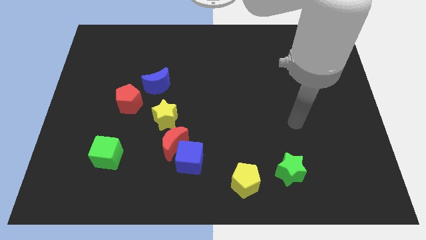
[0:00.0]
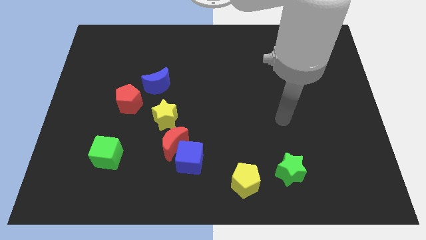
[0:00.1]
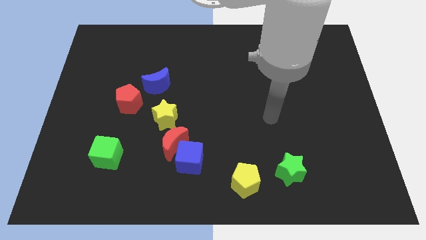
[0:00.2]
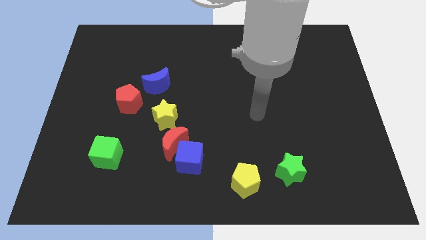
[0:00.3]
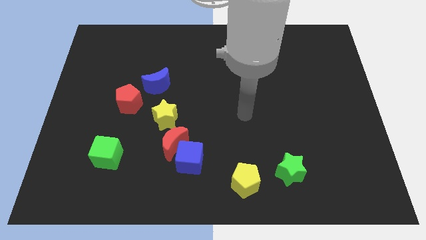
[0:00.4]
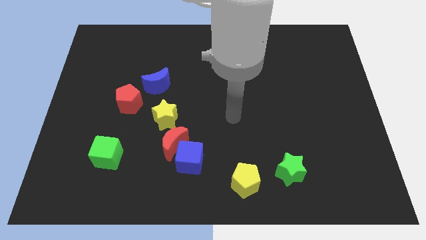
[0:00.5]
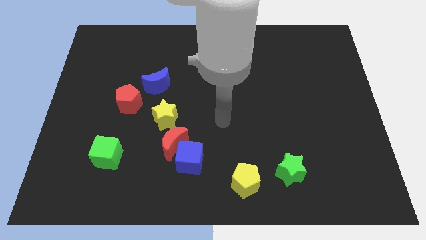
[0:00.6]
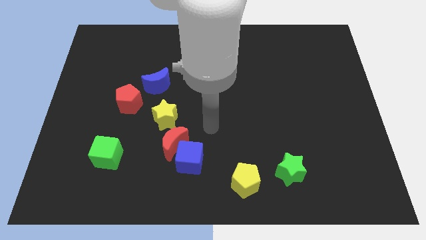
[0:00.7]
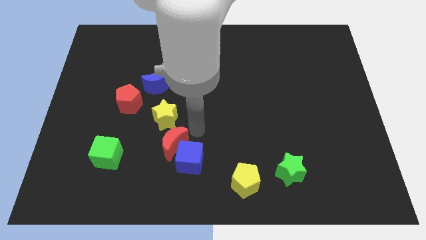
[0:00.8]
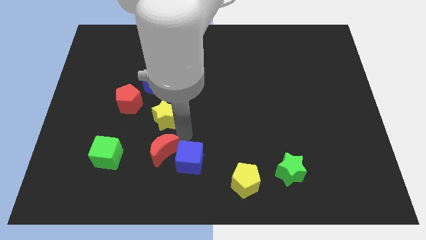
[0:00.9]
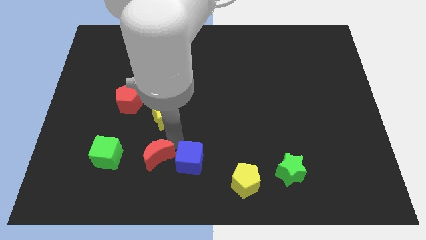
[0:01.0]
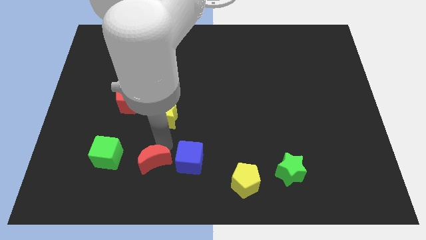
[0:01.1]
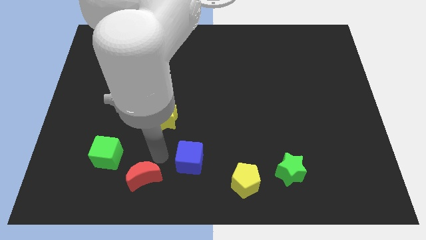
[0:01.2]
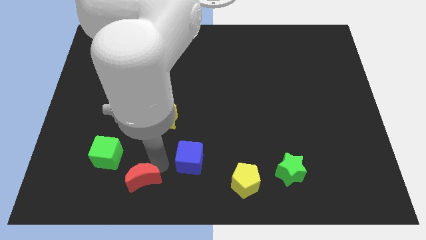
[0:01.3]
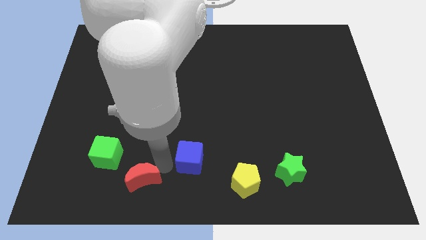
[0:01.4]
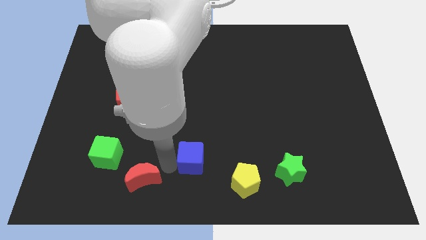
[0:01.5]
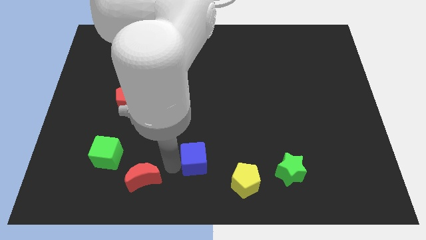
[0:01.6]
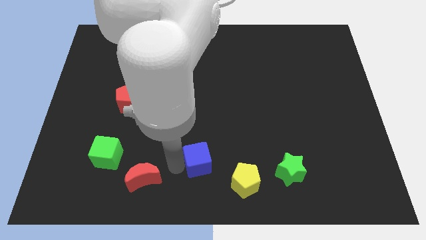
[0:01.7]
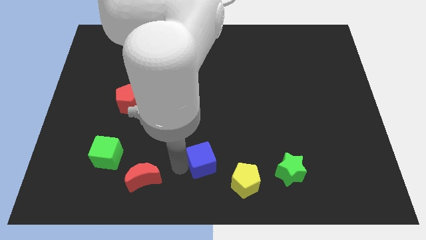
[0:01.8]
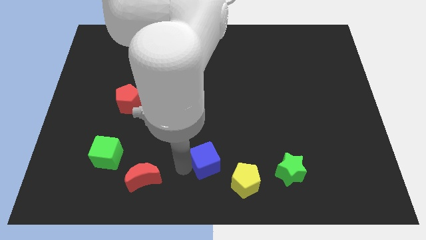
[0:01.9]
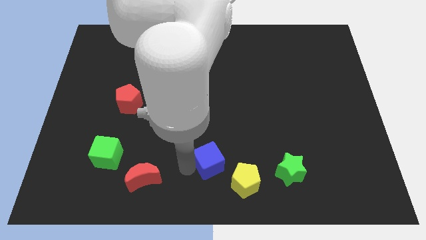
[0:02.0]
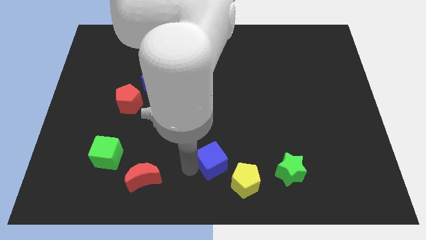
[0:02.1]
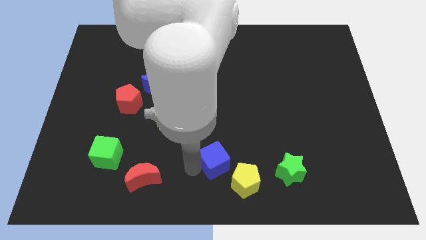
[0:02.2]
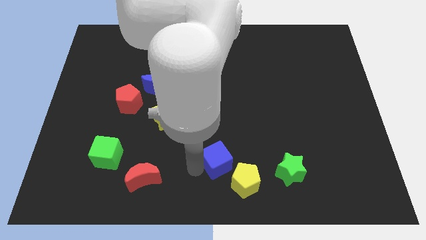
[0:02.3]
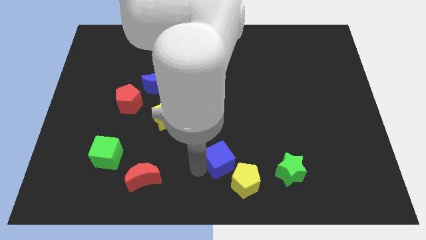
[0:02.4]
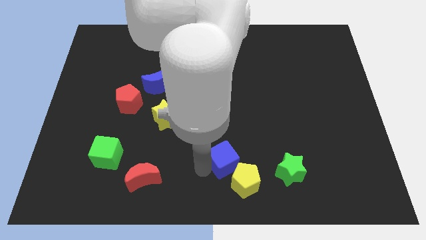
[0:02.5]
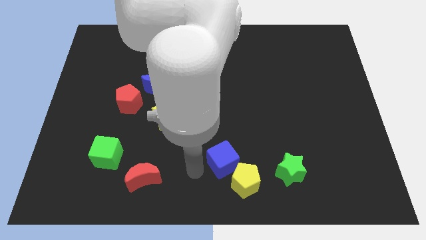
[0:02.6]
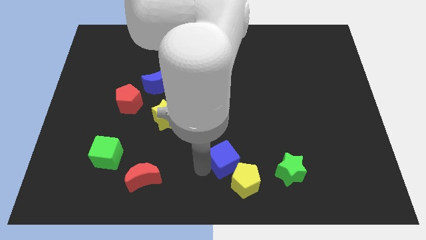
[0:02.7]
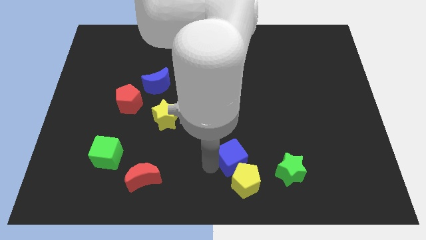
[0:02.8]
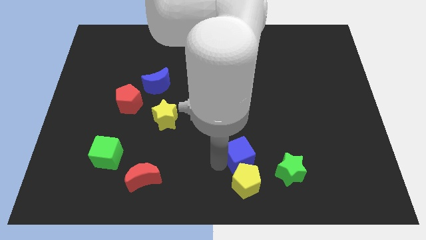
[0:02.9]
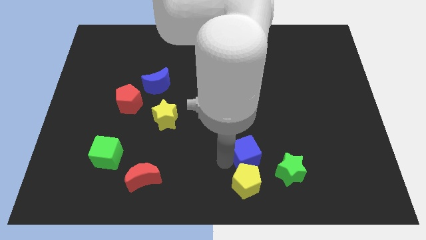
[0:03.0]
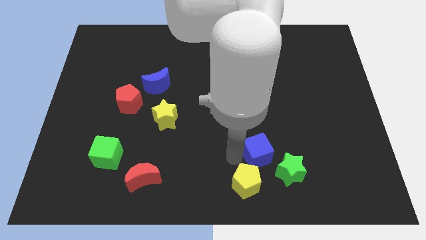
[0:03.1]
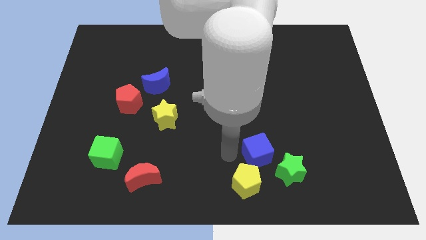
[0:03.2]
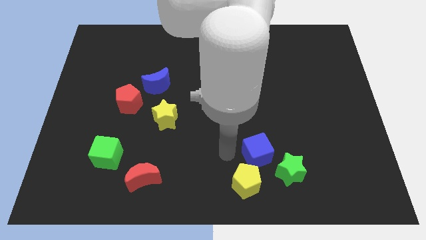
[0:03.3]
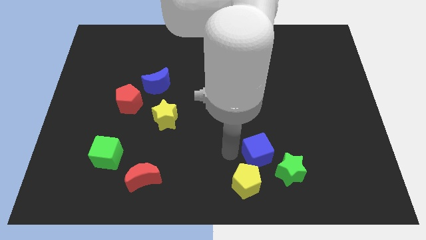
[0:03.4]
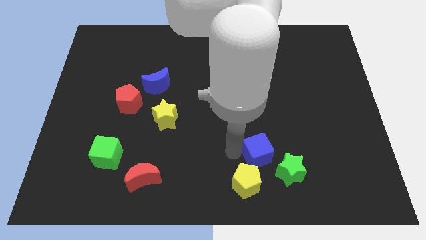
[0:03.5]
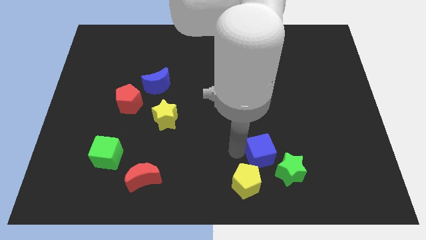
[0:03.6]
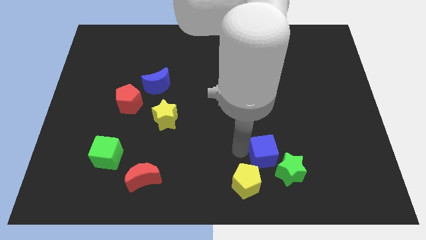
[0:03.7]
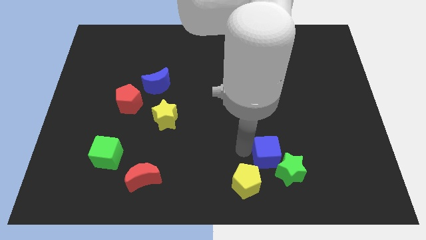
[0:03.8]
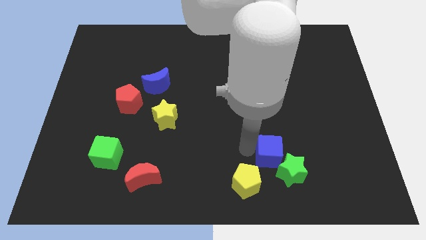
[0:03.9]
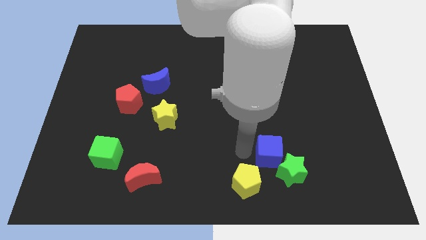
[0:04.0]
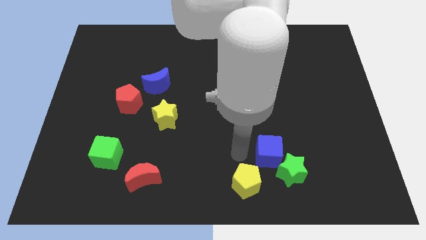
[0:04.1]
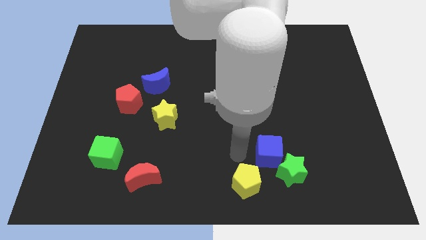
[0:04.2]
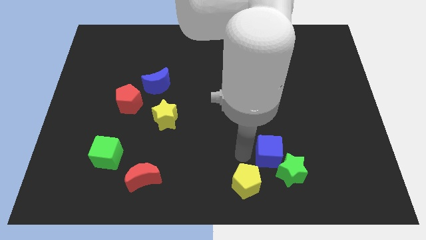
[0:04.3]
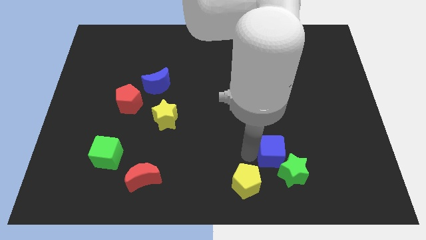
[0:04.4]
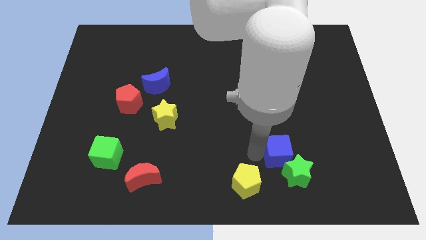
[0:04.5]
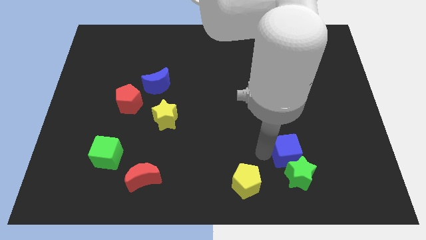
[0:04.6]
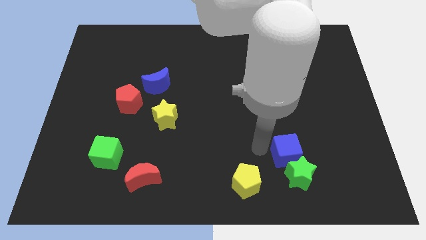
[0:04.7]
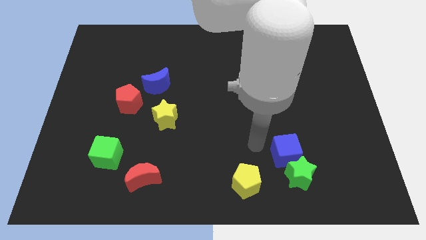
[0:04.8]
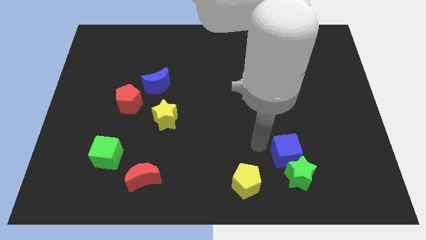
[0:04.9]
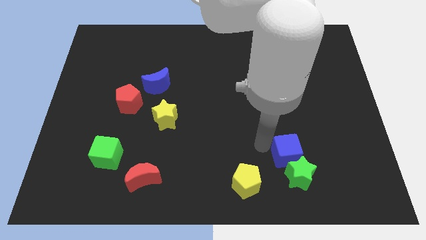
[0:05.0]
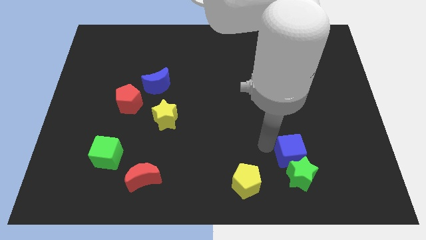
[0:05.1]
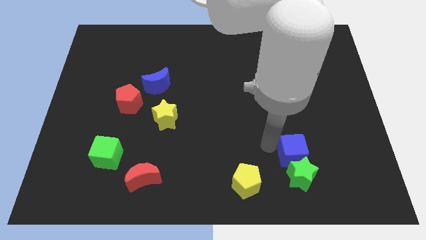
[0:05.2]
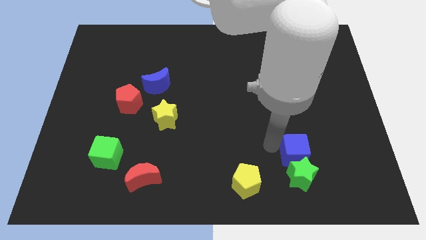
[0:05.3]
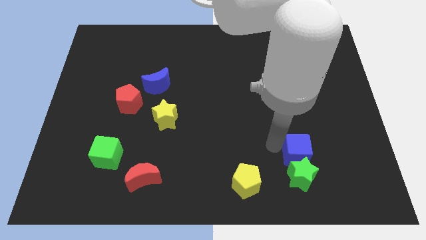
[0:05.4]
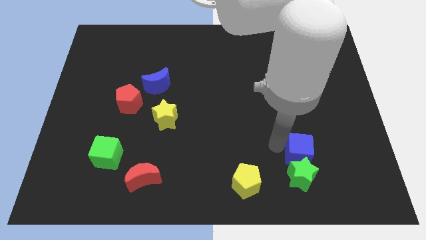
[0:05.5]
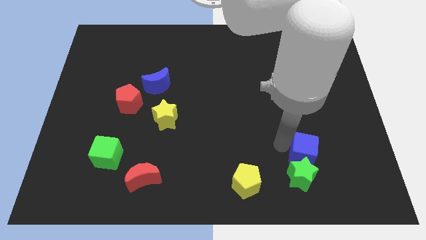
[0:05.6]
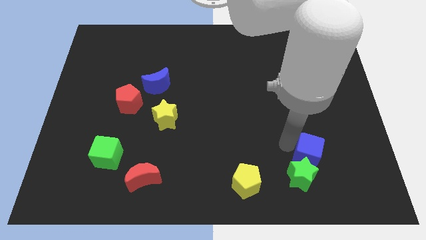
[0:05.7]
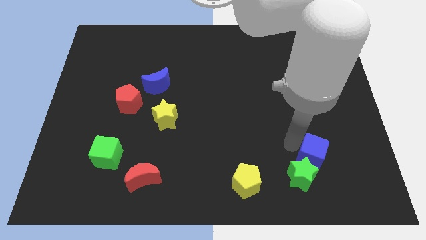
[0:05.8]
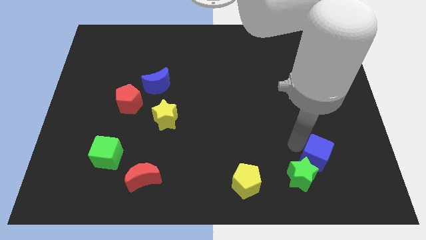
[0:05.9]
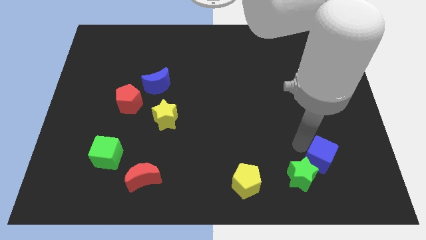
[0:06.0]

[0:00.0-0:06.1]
slide the blue cube to the right side of the green star

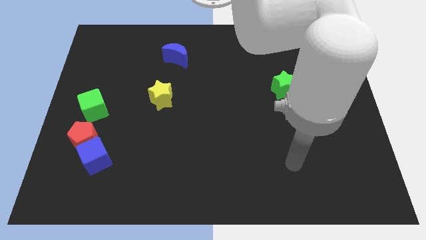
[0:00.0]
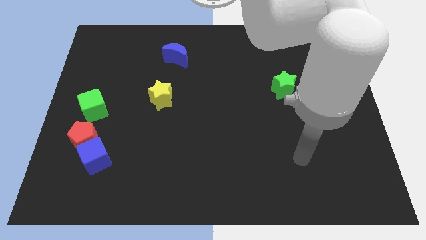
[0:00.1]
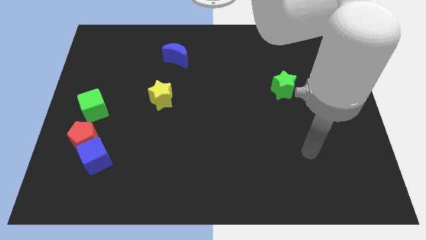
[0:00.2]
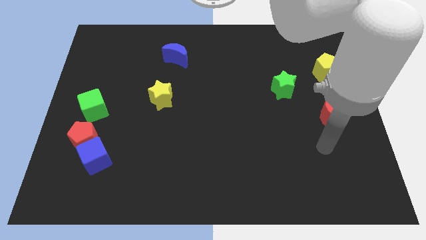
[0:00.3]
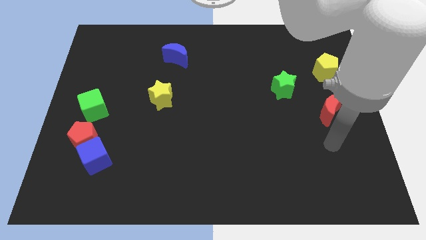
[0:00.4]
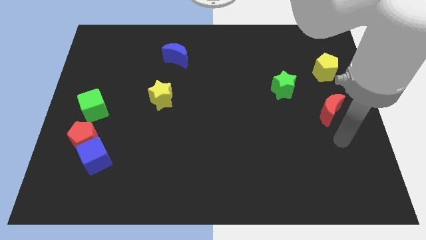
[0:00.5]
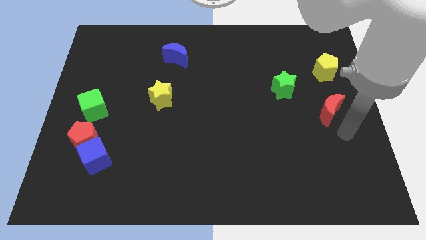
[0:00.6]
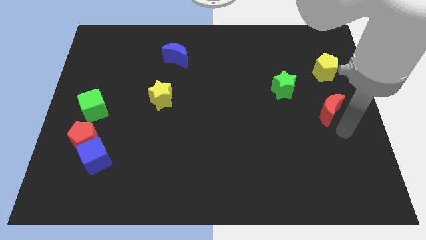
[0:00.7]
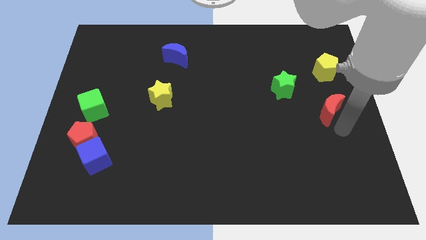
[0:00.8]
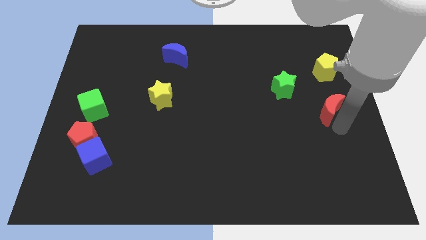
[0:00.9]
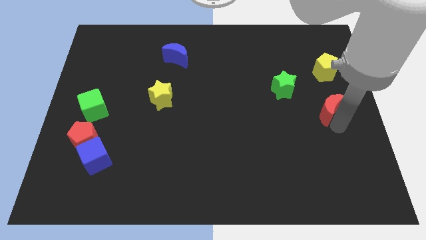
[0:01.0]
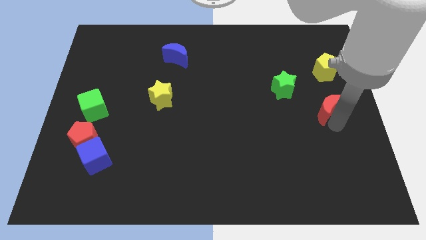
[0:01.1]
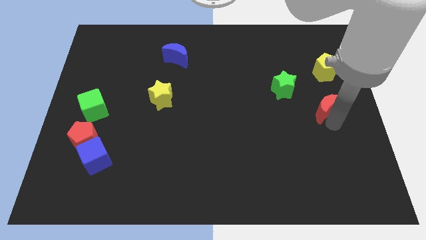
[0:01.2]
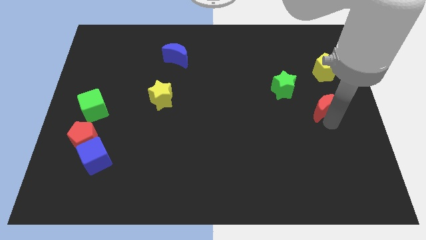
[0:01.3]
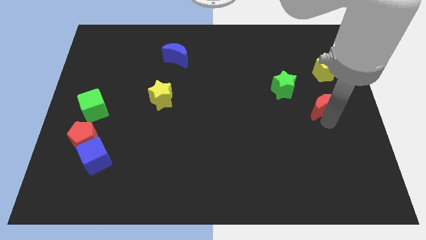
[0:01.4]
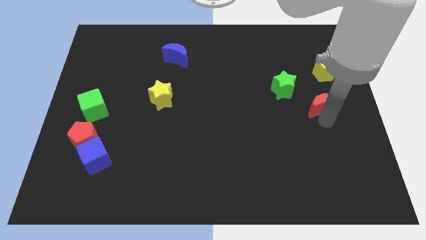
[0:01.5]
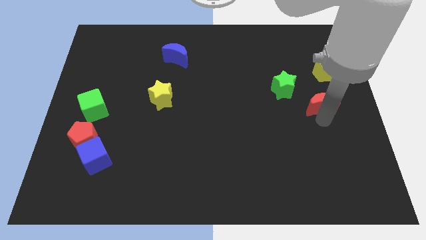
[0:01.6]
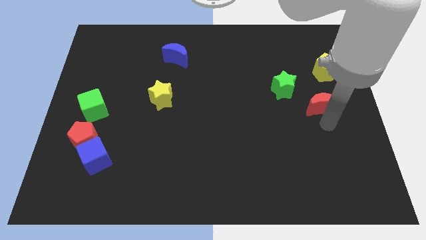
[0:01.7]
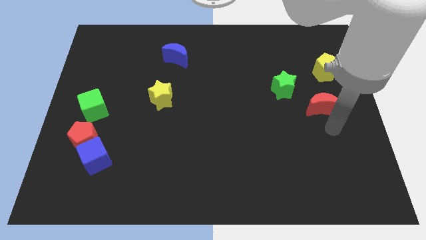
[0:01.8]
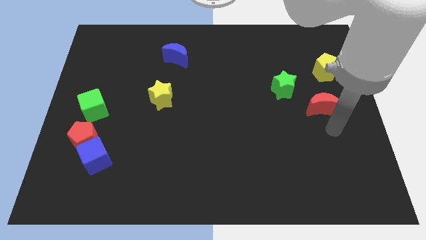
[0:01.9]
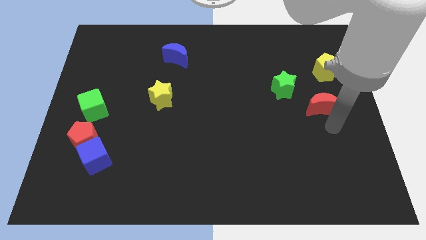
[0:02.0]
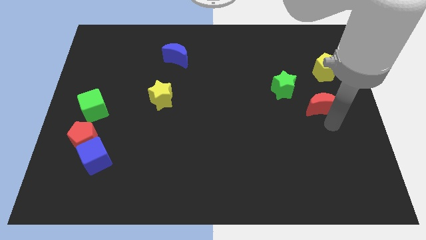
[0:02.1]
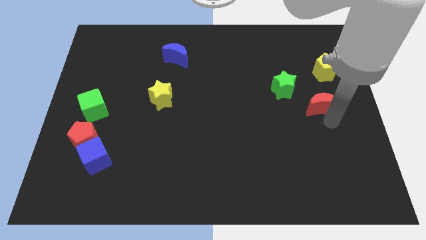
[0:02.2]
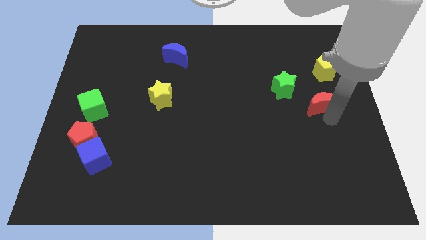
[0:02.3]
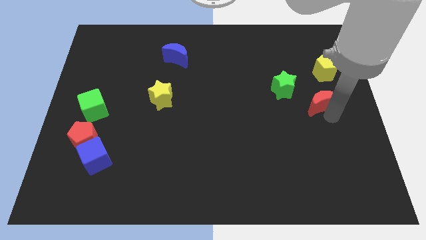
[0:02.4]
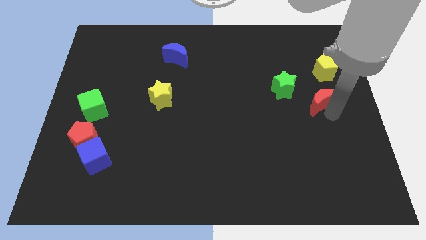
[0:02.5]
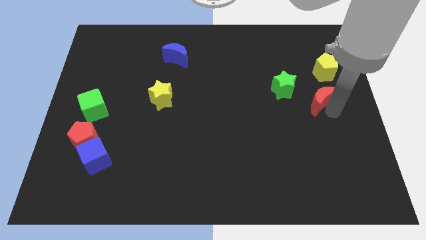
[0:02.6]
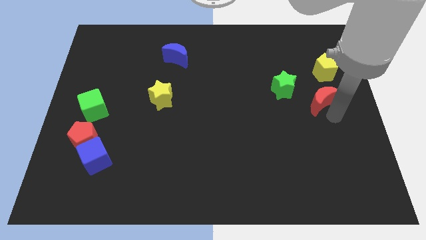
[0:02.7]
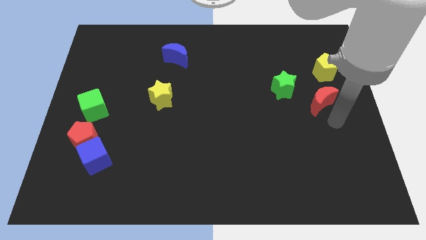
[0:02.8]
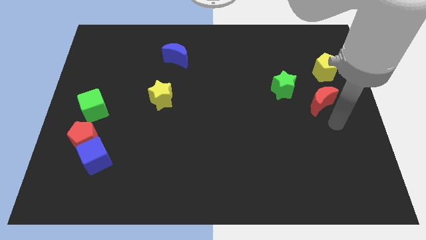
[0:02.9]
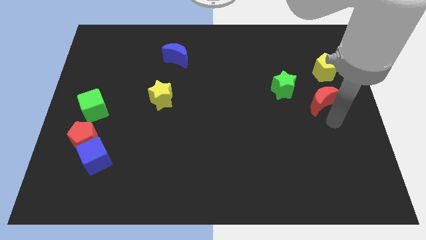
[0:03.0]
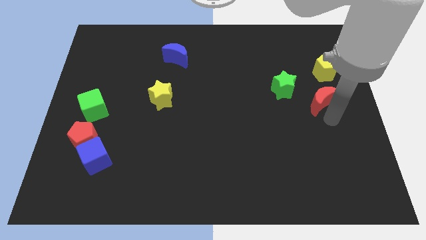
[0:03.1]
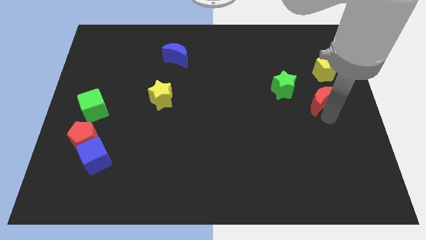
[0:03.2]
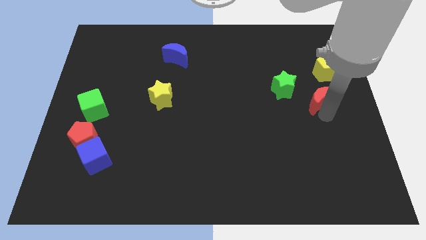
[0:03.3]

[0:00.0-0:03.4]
move the red moon to the bottom left of the yellow pentagon
